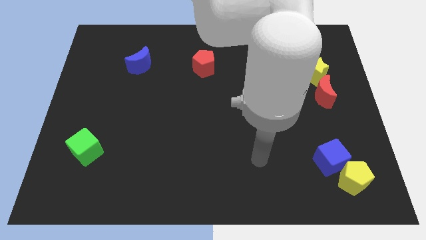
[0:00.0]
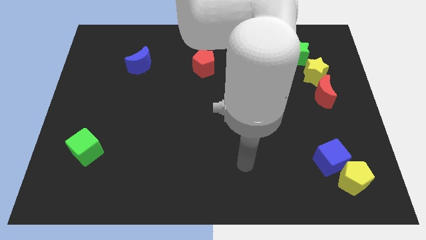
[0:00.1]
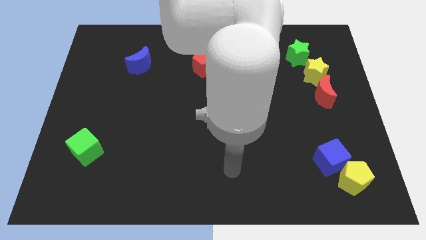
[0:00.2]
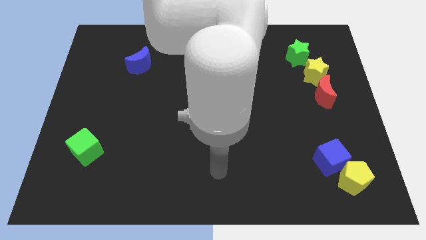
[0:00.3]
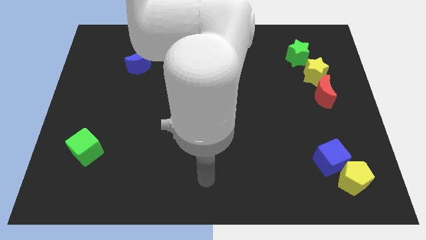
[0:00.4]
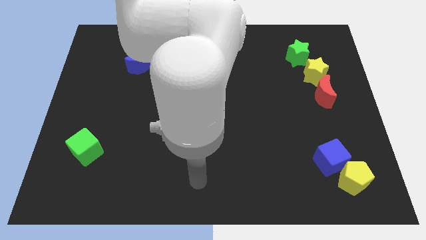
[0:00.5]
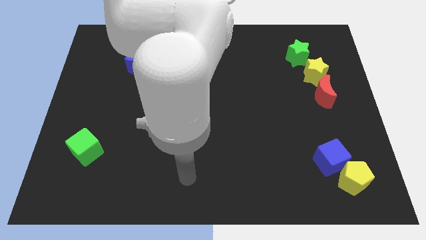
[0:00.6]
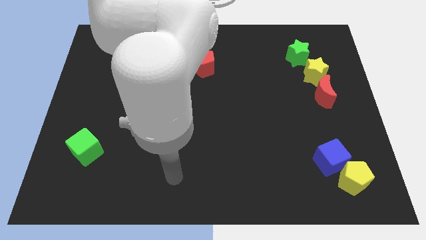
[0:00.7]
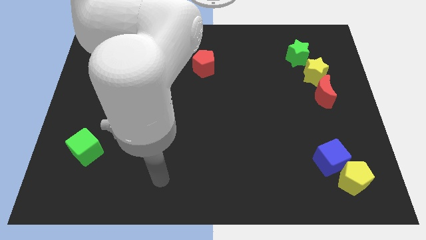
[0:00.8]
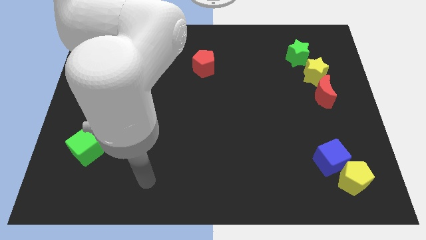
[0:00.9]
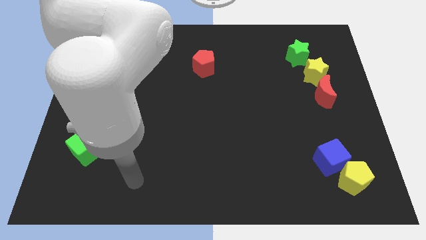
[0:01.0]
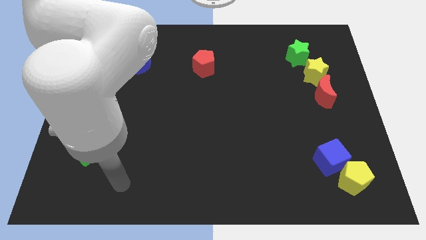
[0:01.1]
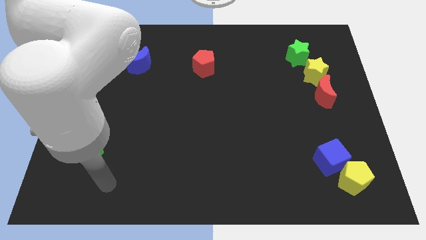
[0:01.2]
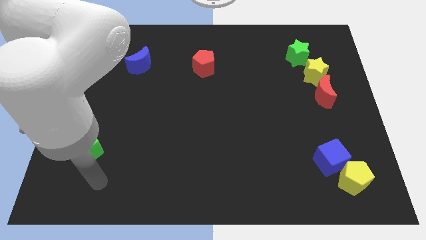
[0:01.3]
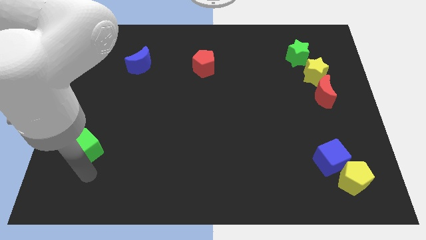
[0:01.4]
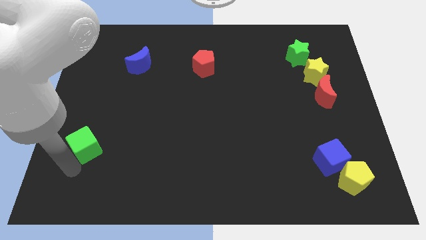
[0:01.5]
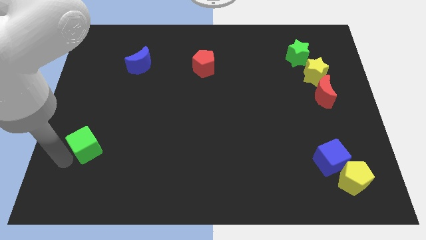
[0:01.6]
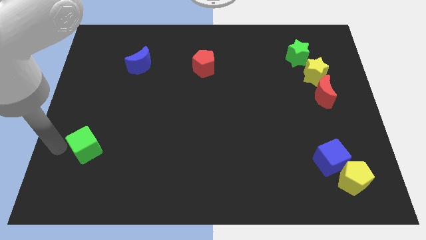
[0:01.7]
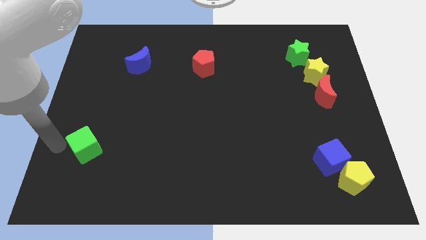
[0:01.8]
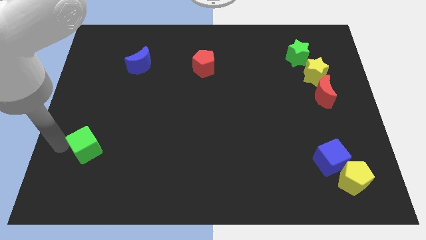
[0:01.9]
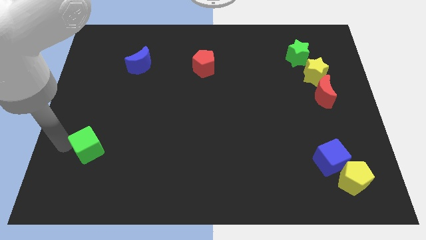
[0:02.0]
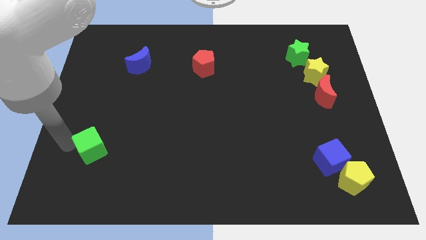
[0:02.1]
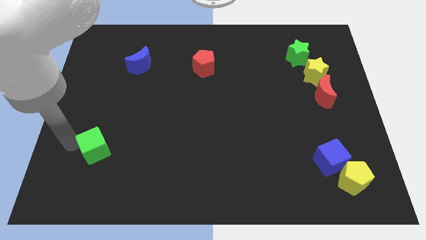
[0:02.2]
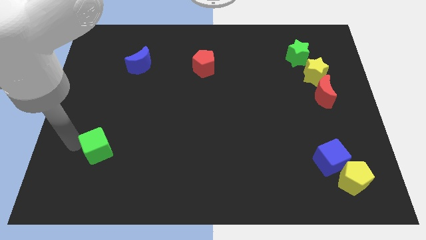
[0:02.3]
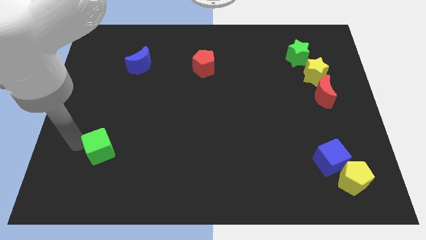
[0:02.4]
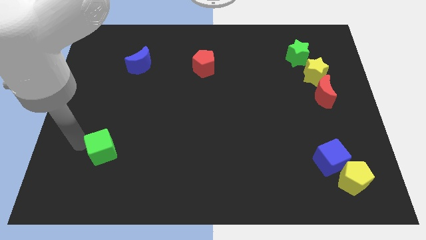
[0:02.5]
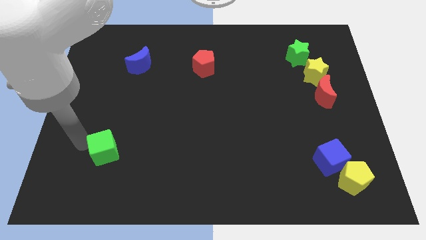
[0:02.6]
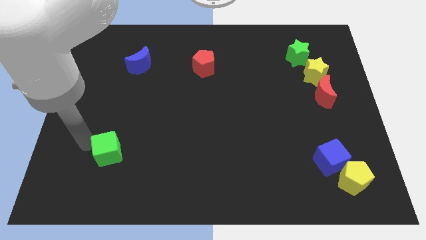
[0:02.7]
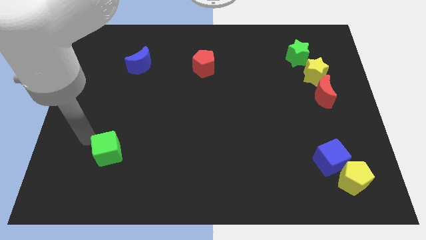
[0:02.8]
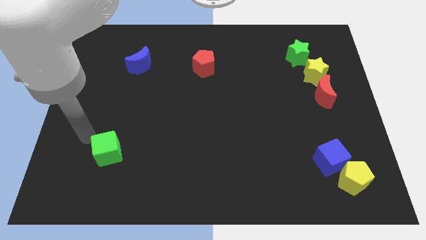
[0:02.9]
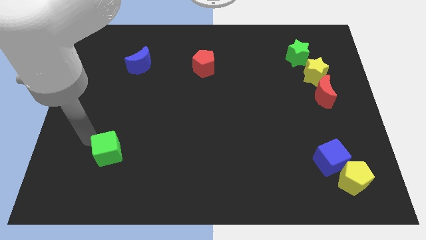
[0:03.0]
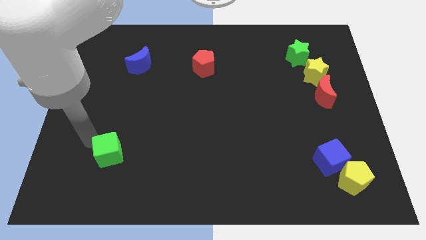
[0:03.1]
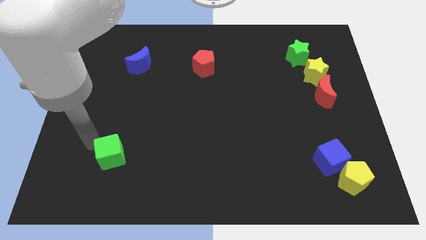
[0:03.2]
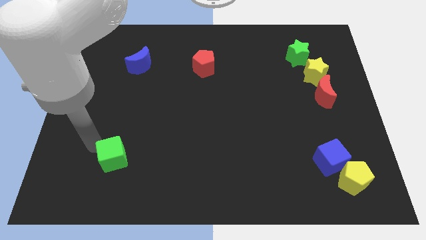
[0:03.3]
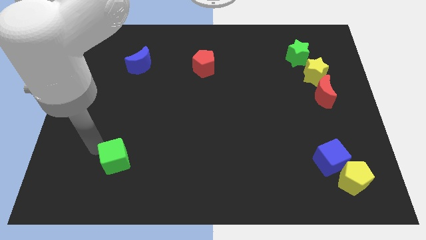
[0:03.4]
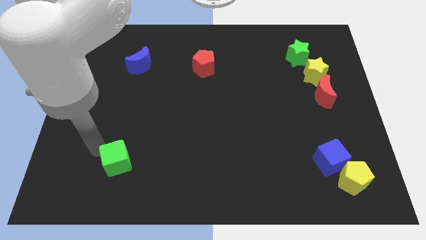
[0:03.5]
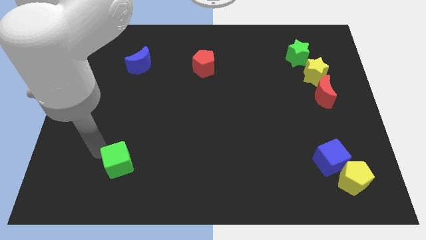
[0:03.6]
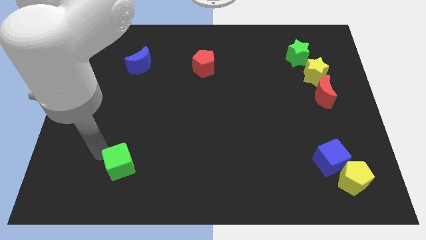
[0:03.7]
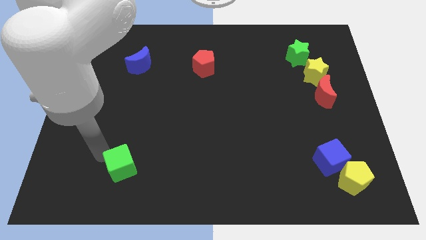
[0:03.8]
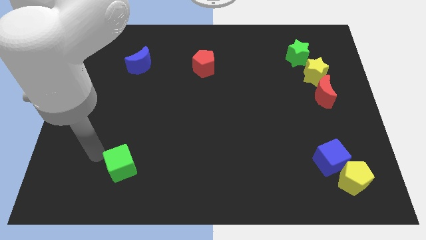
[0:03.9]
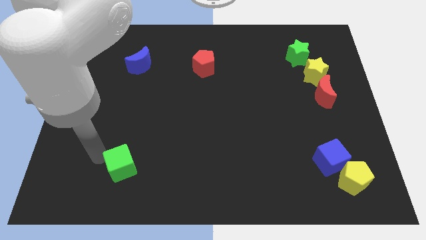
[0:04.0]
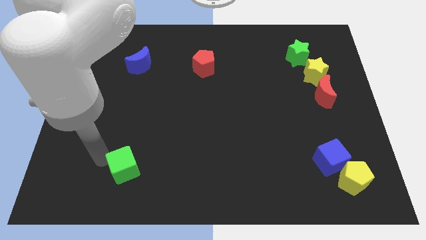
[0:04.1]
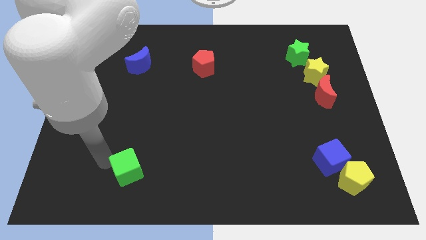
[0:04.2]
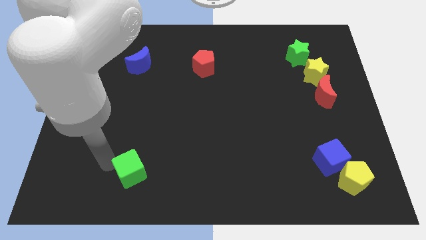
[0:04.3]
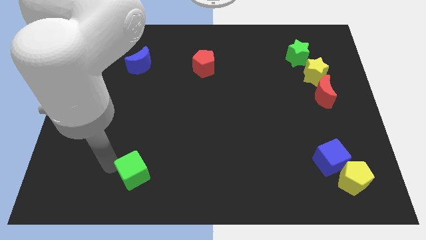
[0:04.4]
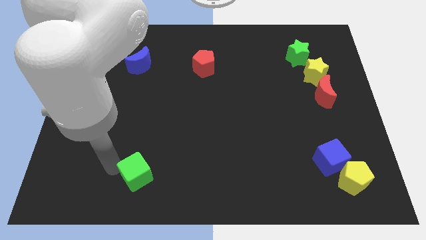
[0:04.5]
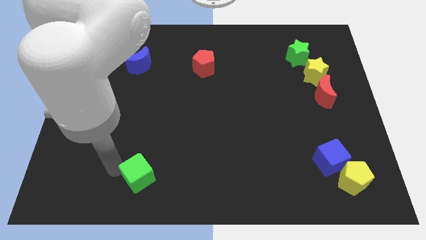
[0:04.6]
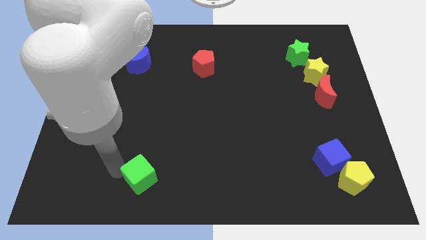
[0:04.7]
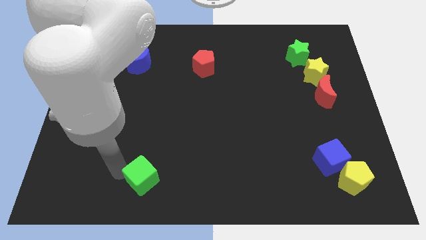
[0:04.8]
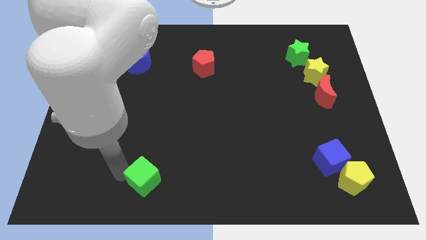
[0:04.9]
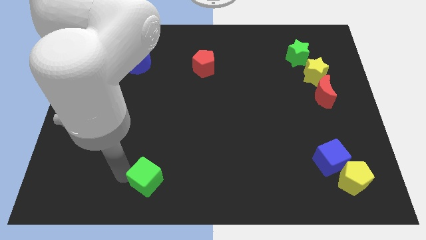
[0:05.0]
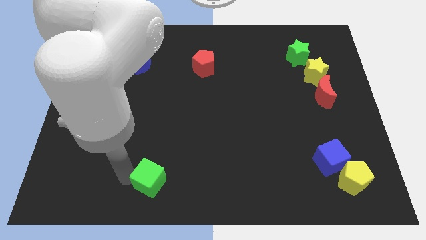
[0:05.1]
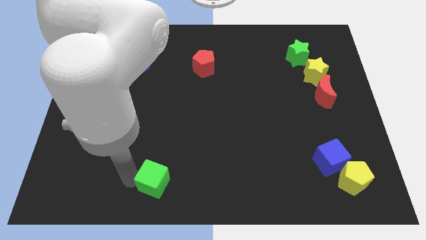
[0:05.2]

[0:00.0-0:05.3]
push the green cube to the bottom side

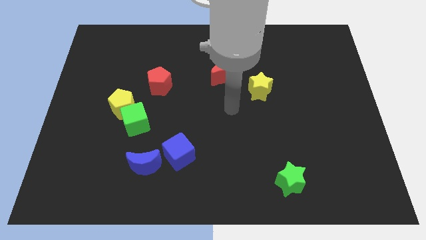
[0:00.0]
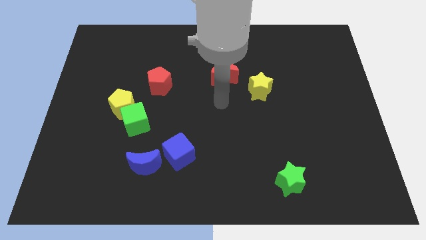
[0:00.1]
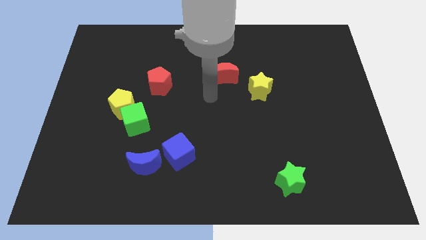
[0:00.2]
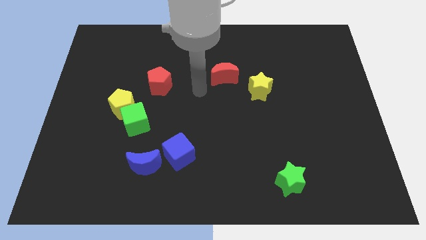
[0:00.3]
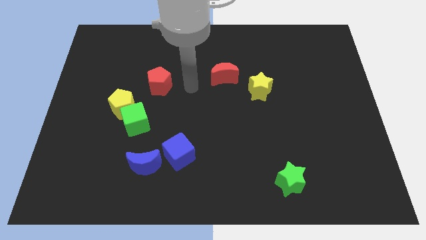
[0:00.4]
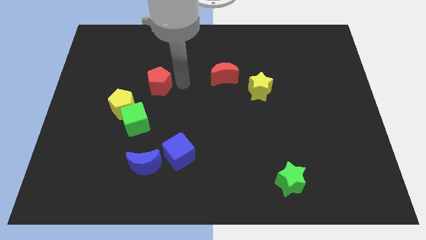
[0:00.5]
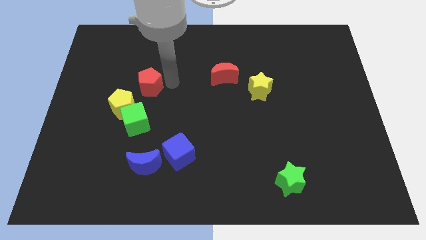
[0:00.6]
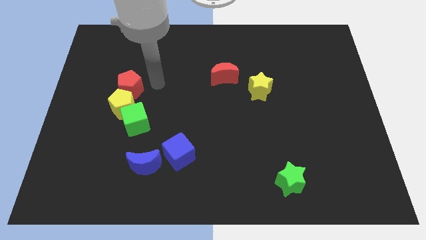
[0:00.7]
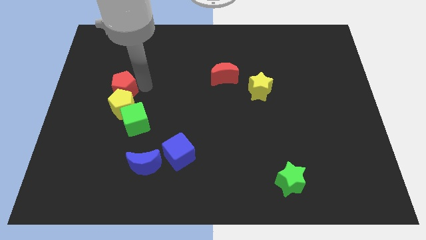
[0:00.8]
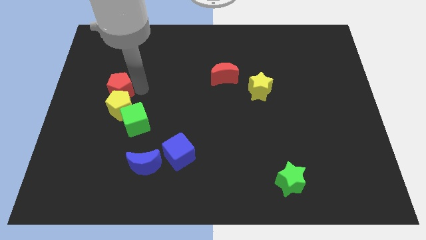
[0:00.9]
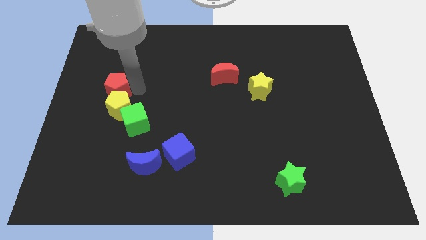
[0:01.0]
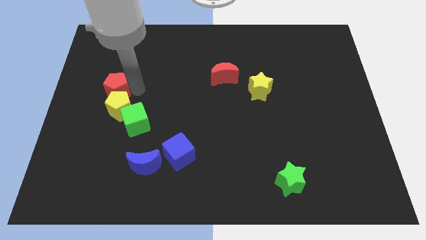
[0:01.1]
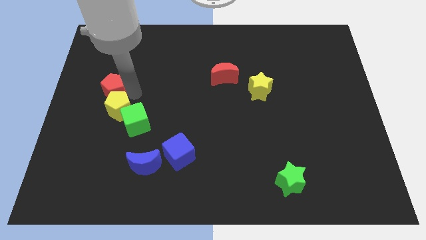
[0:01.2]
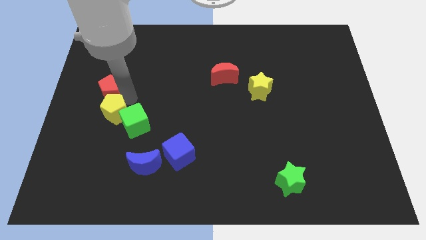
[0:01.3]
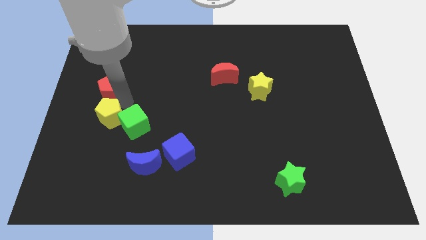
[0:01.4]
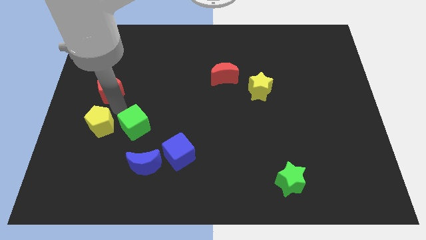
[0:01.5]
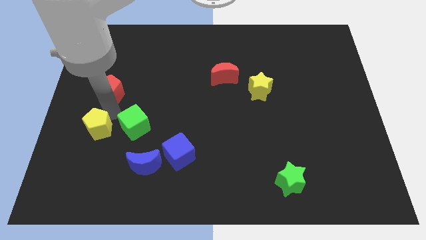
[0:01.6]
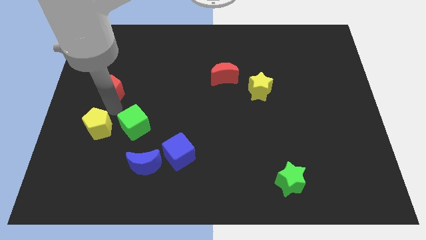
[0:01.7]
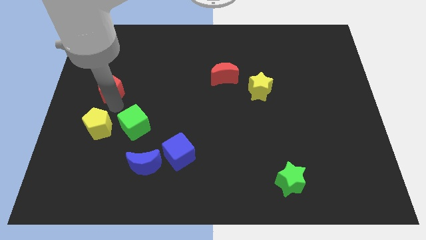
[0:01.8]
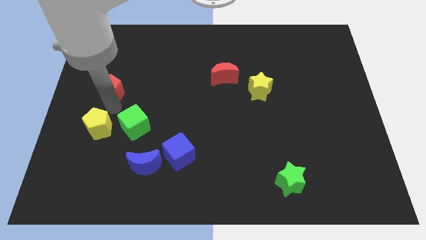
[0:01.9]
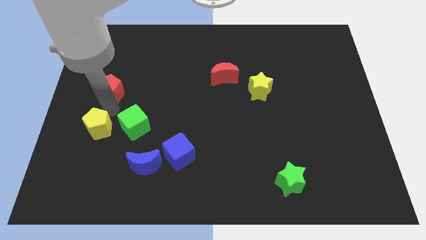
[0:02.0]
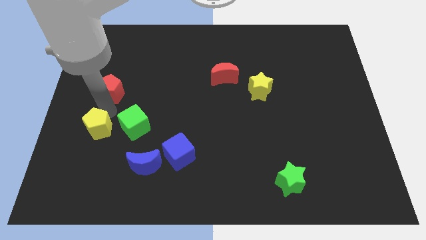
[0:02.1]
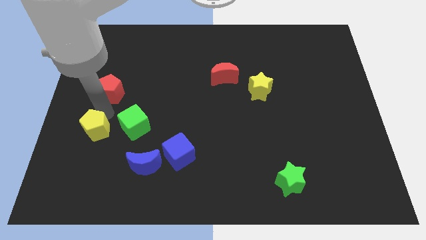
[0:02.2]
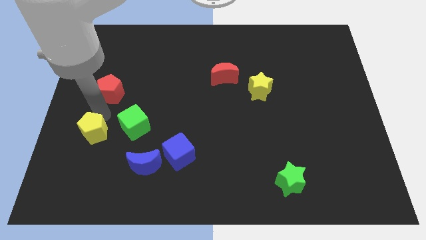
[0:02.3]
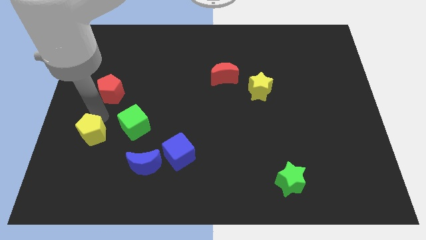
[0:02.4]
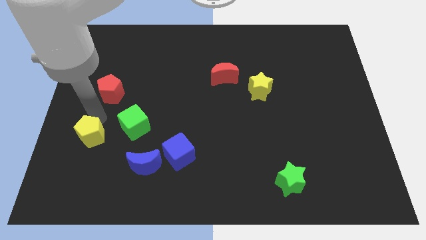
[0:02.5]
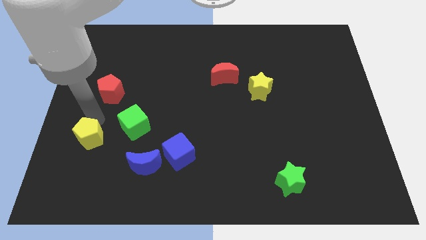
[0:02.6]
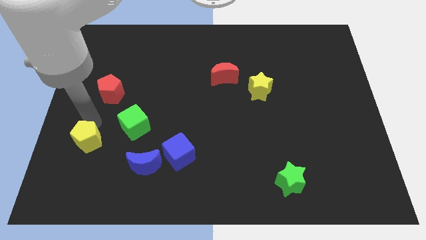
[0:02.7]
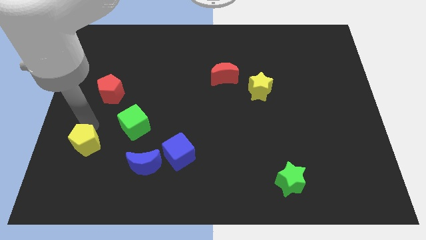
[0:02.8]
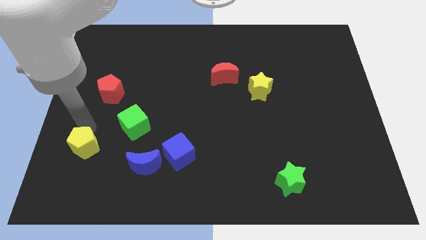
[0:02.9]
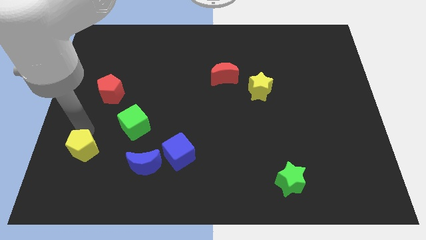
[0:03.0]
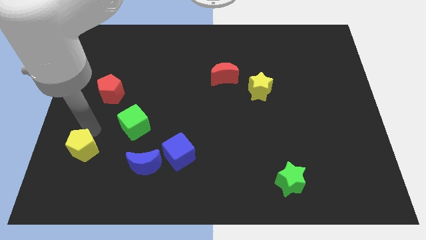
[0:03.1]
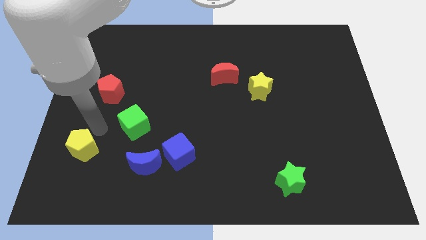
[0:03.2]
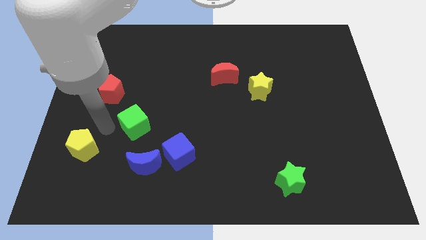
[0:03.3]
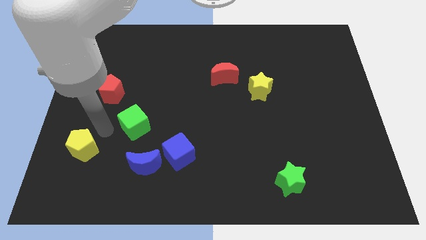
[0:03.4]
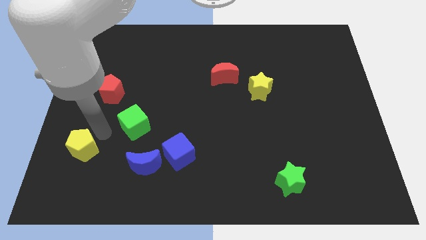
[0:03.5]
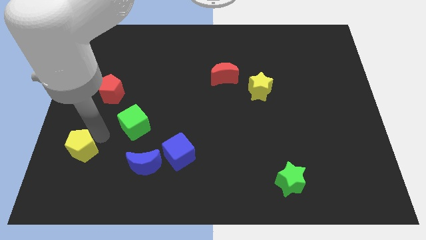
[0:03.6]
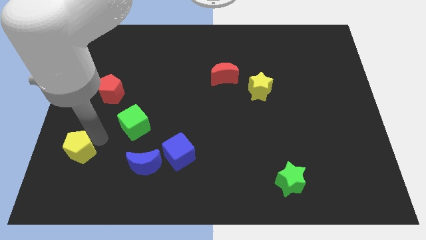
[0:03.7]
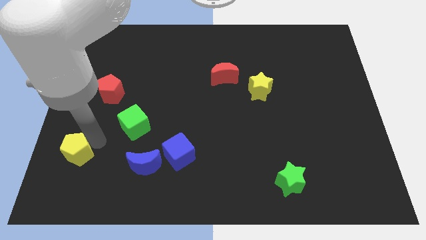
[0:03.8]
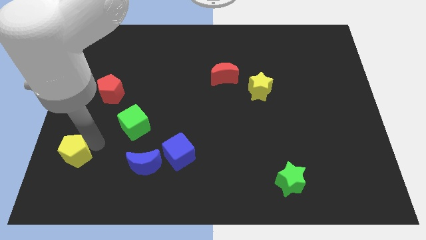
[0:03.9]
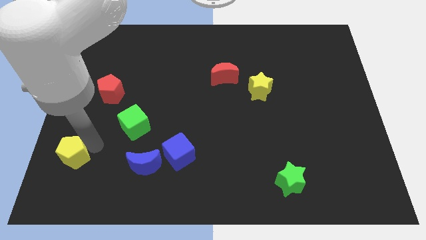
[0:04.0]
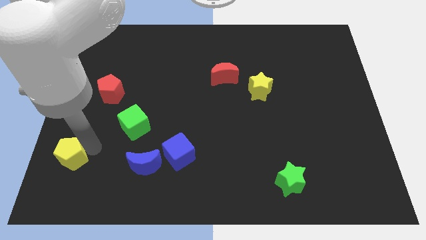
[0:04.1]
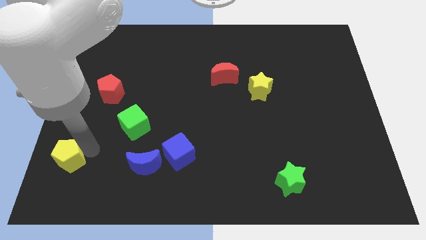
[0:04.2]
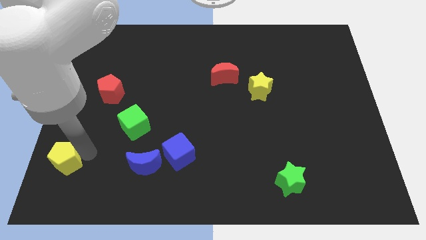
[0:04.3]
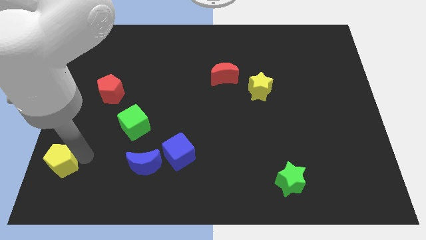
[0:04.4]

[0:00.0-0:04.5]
slide the yellow pentagon to the bottom left of the board
